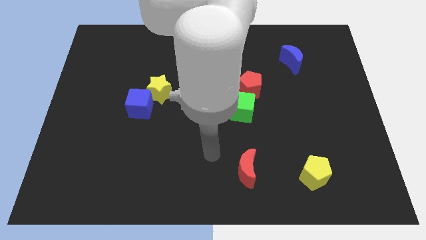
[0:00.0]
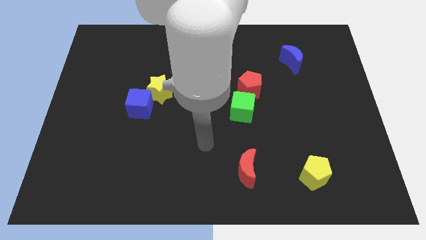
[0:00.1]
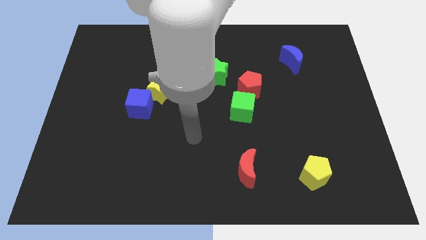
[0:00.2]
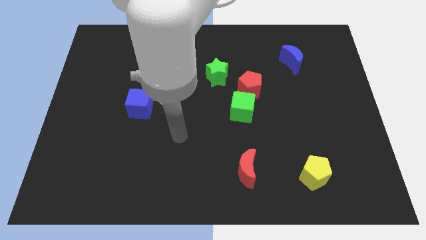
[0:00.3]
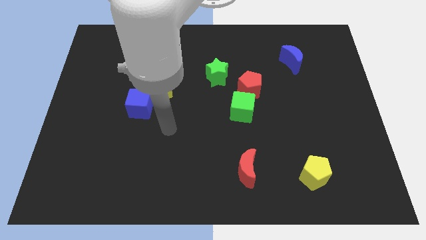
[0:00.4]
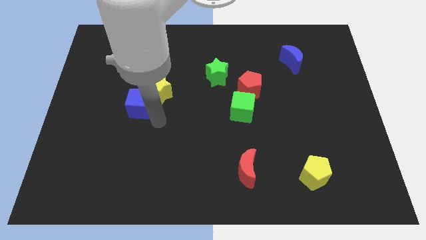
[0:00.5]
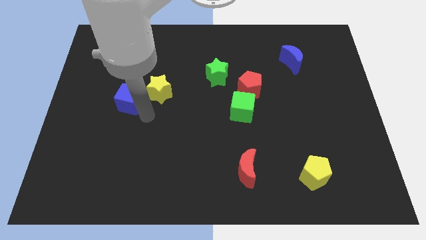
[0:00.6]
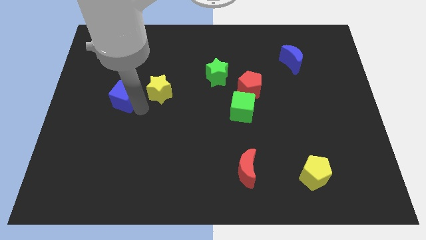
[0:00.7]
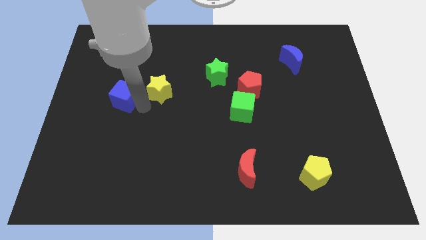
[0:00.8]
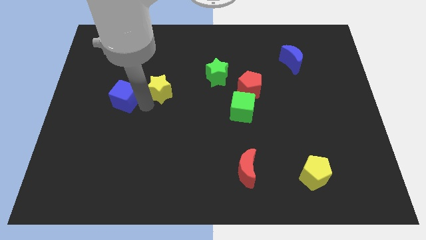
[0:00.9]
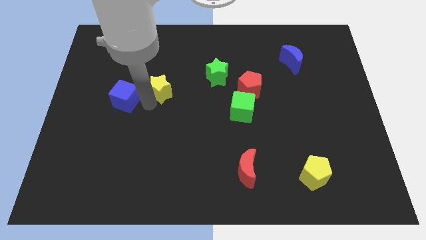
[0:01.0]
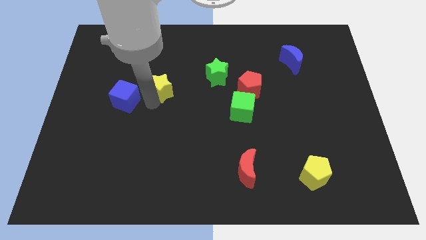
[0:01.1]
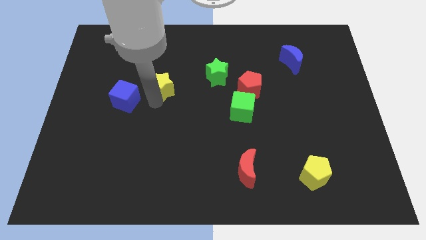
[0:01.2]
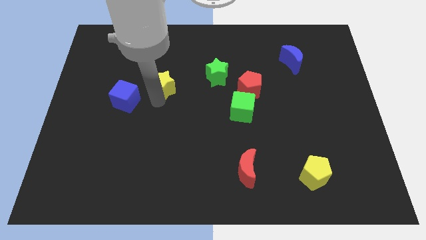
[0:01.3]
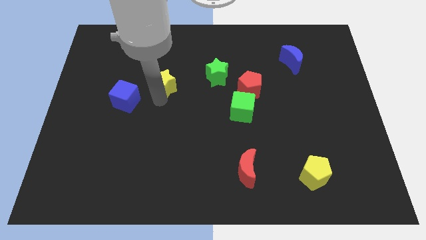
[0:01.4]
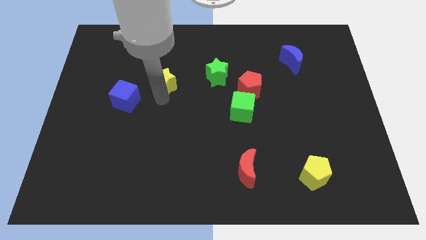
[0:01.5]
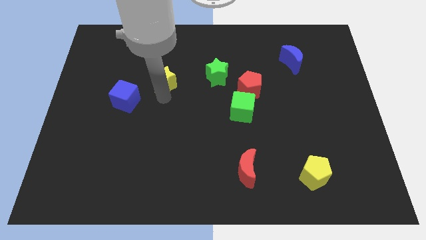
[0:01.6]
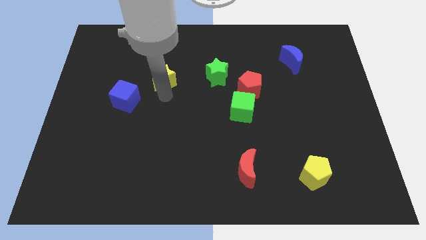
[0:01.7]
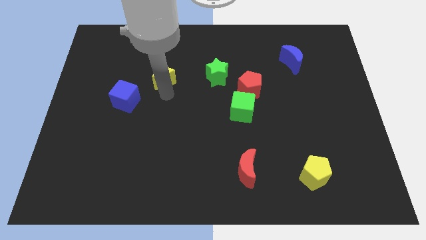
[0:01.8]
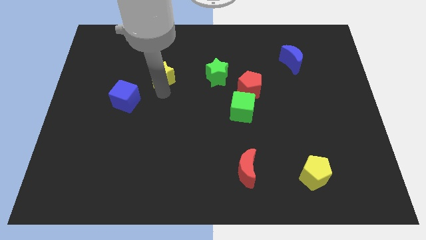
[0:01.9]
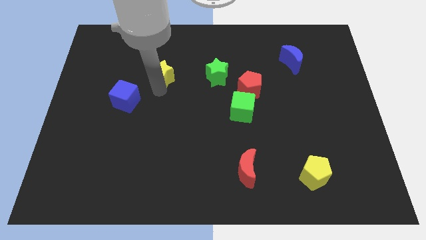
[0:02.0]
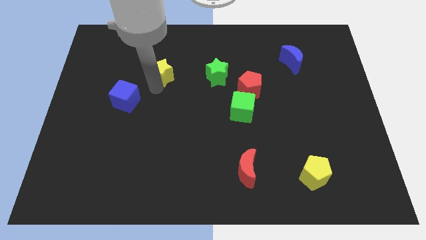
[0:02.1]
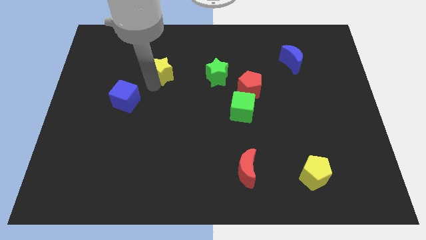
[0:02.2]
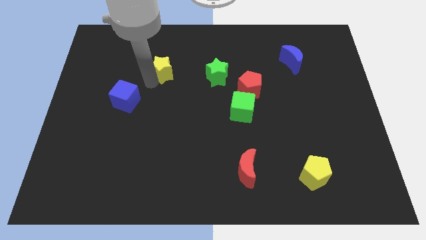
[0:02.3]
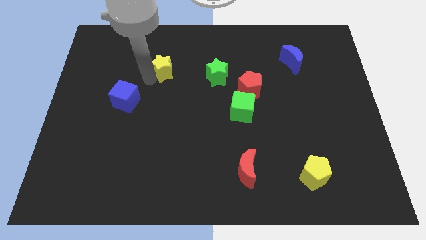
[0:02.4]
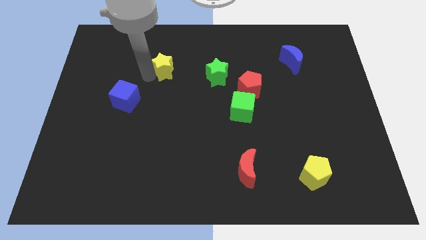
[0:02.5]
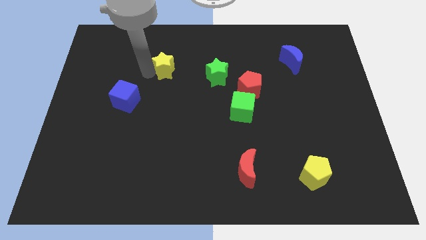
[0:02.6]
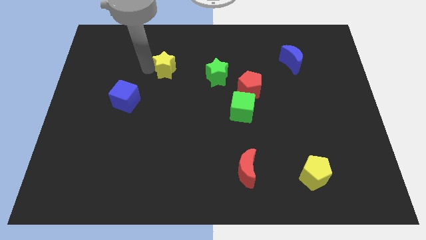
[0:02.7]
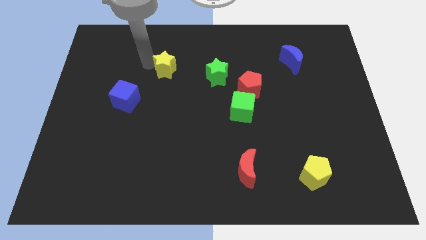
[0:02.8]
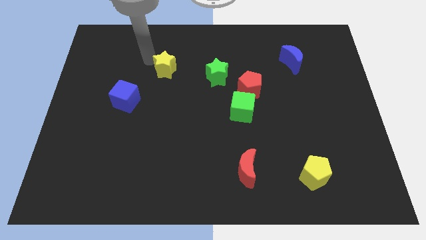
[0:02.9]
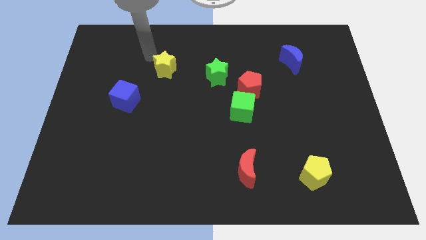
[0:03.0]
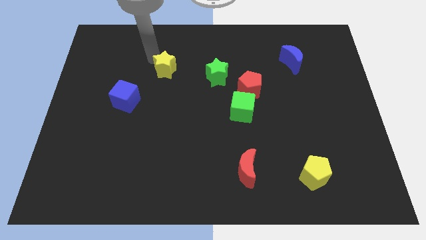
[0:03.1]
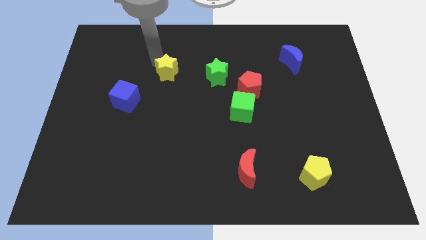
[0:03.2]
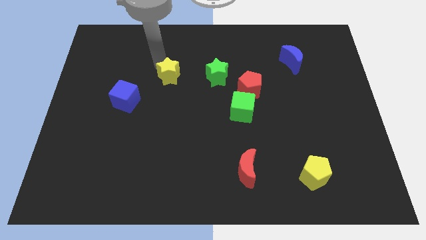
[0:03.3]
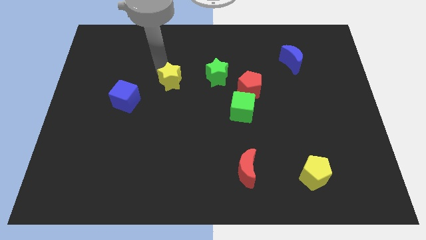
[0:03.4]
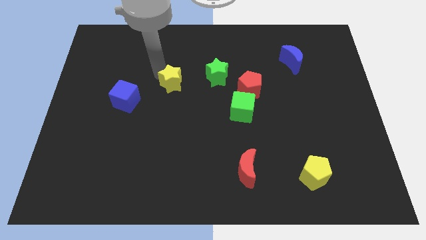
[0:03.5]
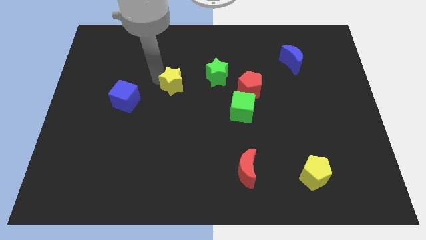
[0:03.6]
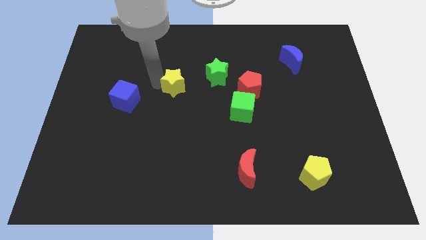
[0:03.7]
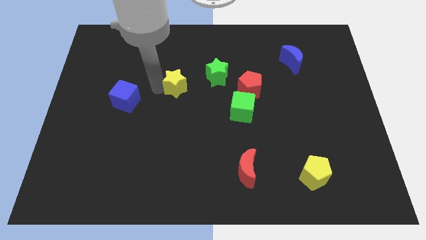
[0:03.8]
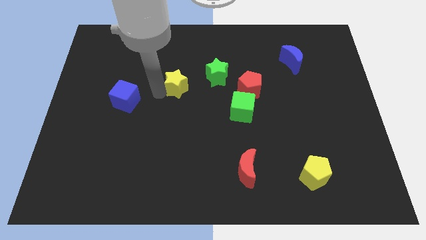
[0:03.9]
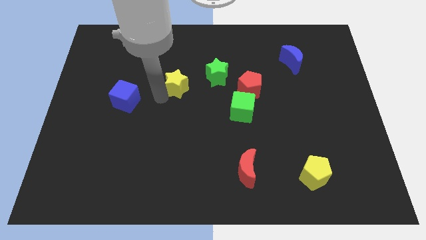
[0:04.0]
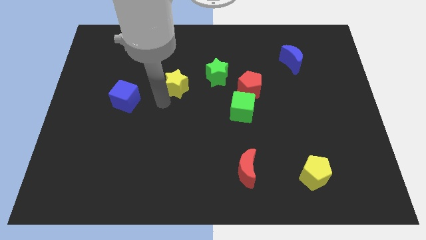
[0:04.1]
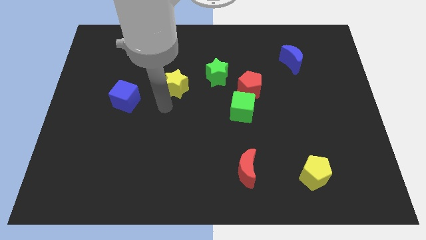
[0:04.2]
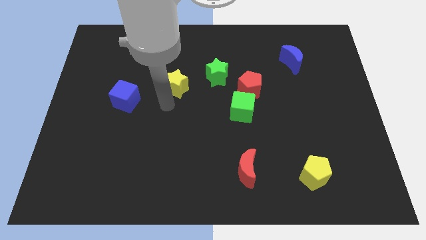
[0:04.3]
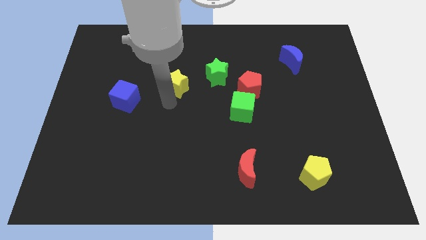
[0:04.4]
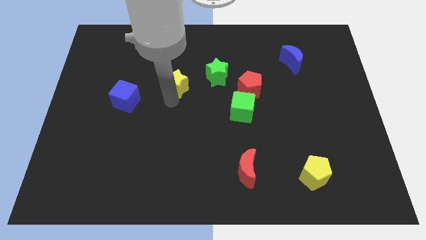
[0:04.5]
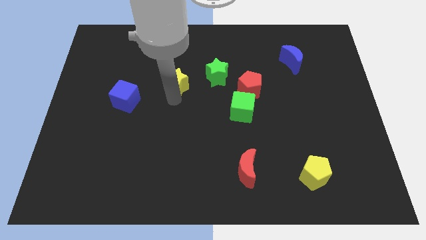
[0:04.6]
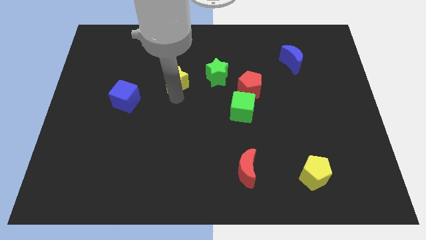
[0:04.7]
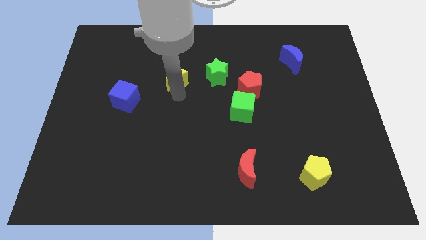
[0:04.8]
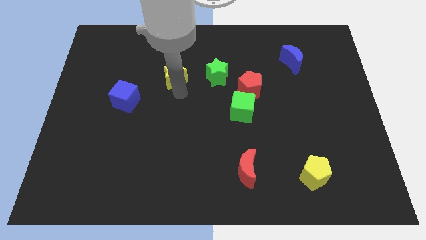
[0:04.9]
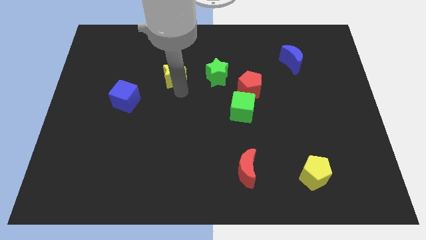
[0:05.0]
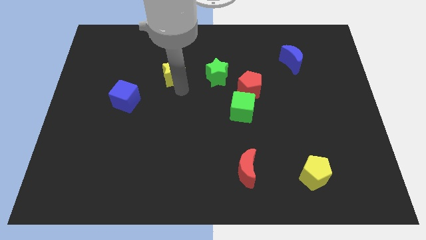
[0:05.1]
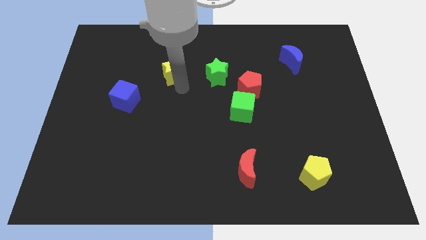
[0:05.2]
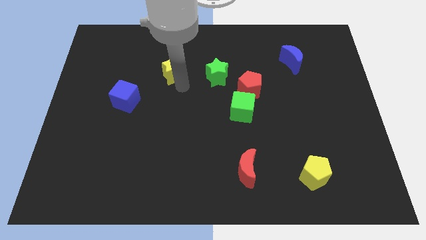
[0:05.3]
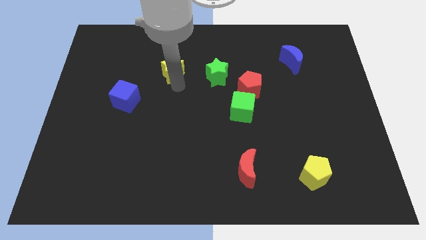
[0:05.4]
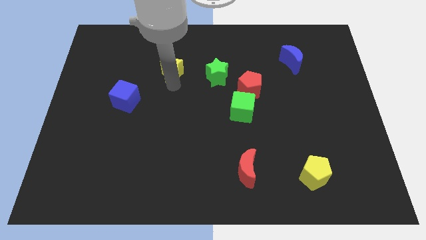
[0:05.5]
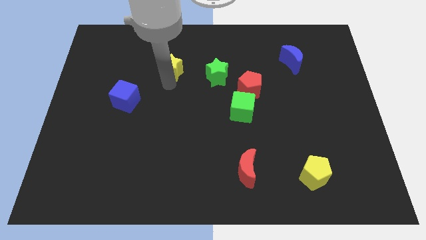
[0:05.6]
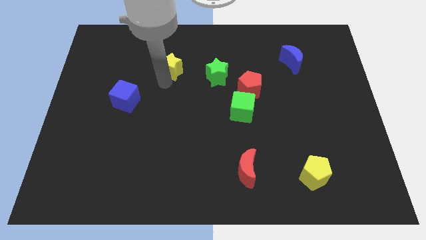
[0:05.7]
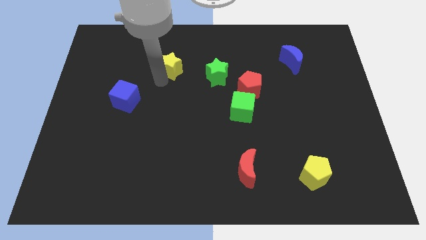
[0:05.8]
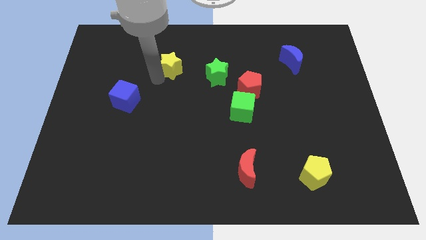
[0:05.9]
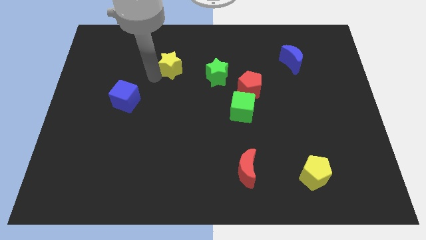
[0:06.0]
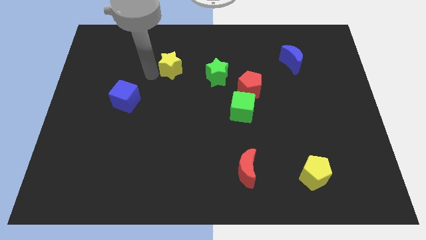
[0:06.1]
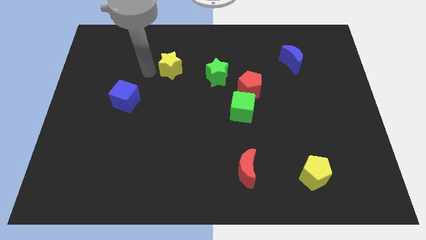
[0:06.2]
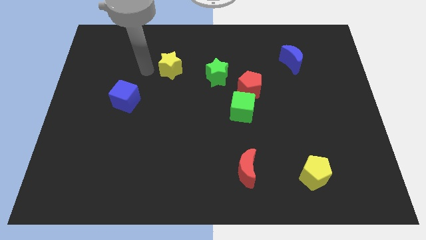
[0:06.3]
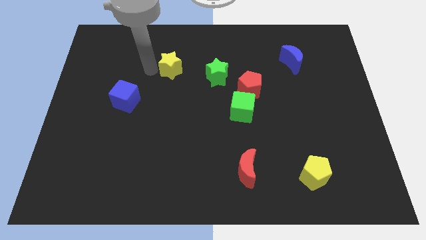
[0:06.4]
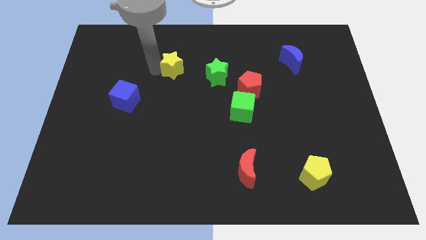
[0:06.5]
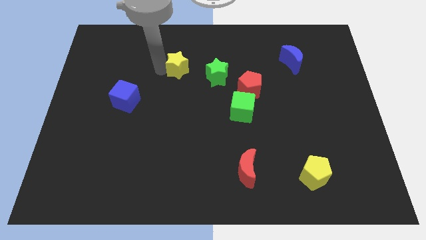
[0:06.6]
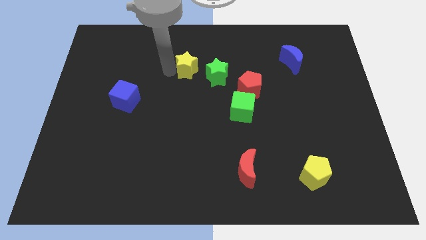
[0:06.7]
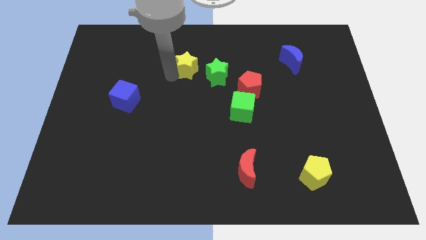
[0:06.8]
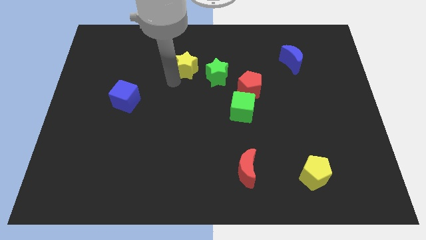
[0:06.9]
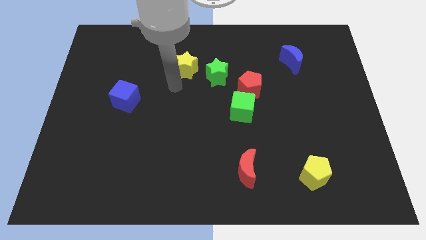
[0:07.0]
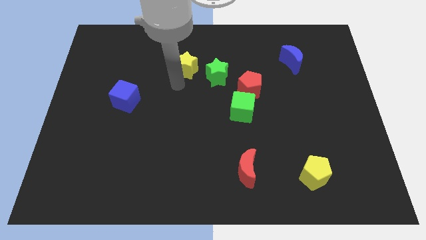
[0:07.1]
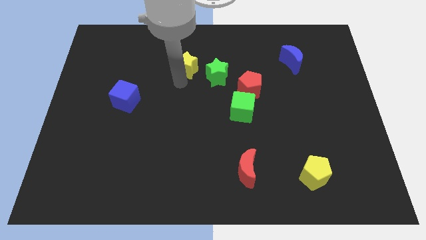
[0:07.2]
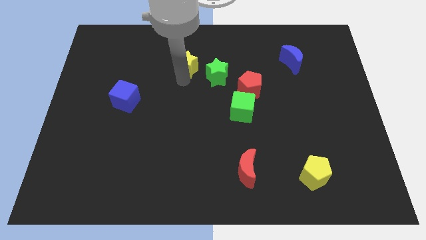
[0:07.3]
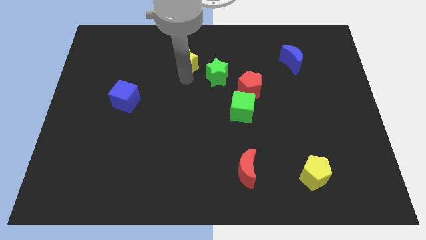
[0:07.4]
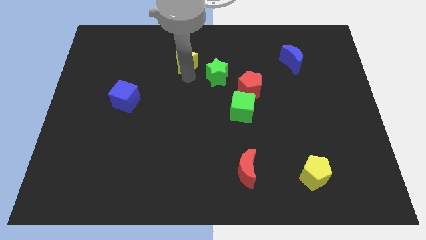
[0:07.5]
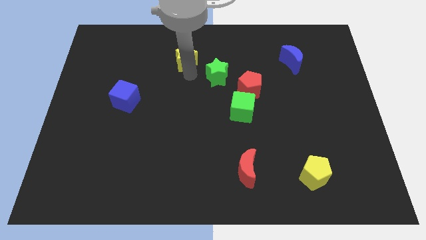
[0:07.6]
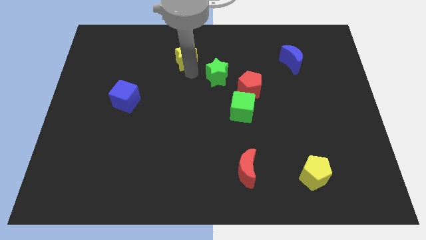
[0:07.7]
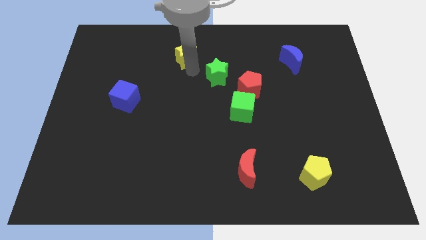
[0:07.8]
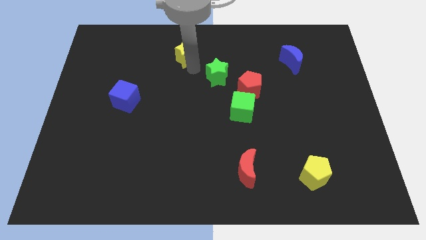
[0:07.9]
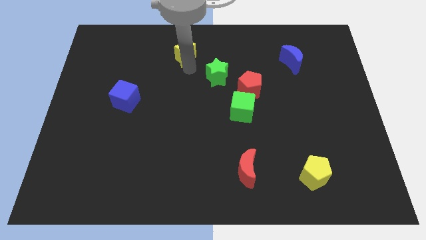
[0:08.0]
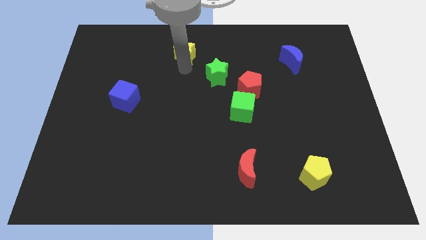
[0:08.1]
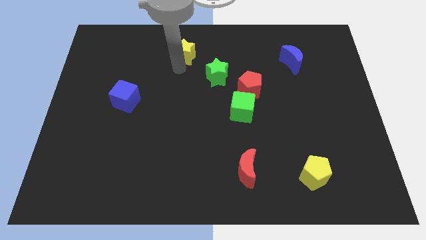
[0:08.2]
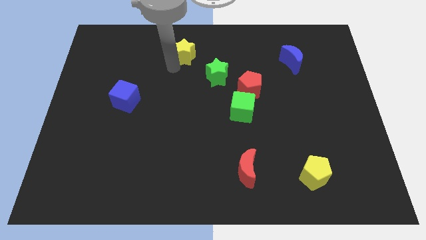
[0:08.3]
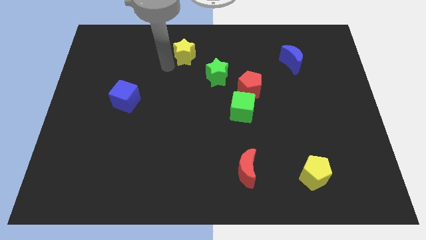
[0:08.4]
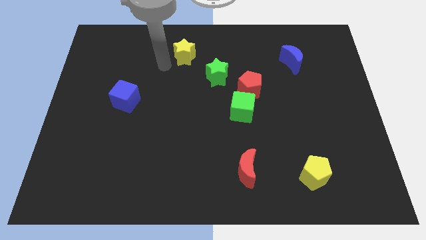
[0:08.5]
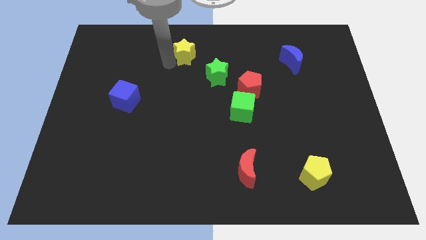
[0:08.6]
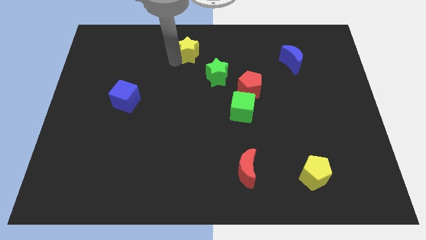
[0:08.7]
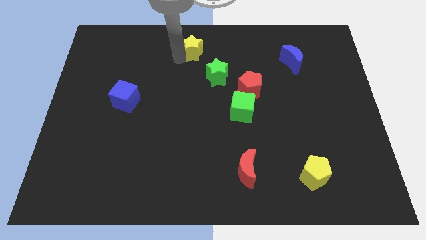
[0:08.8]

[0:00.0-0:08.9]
move the yellow star to the top side
